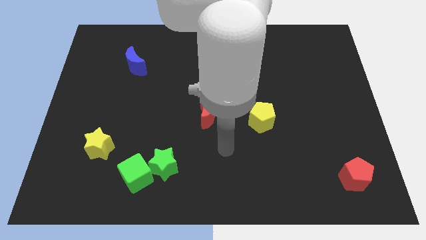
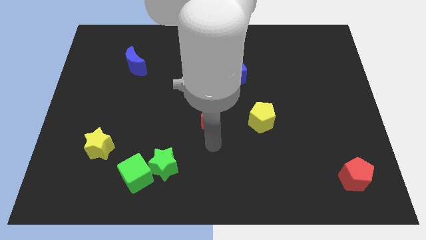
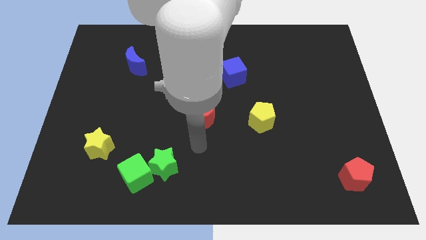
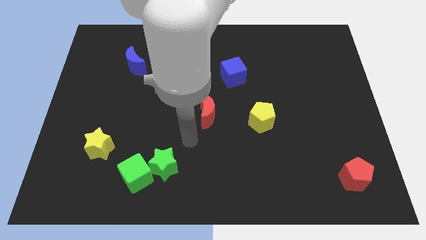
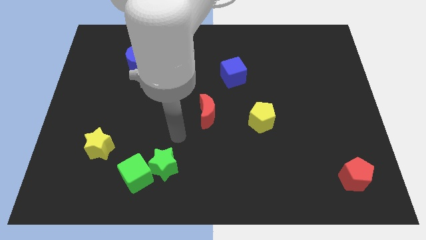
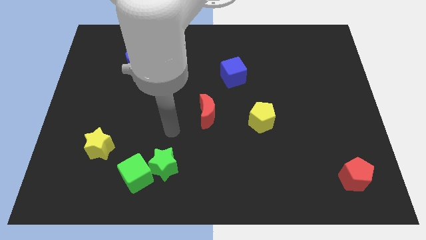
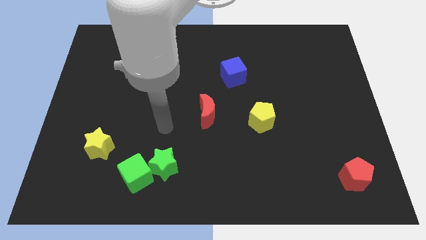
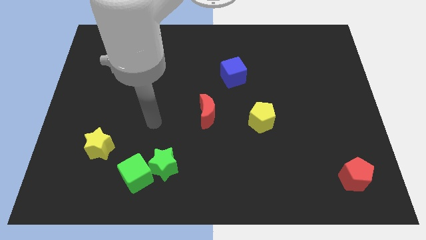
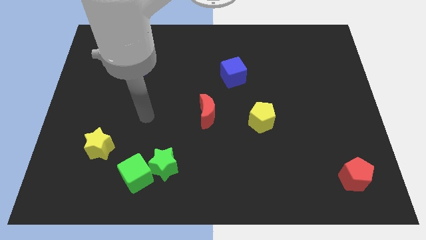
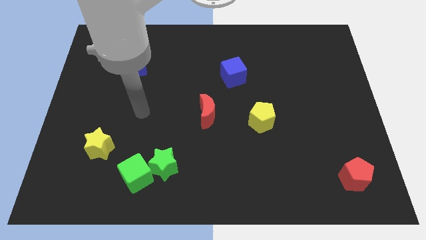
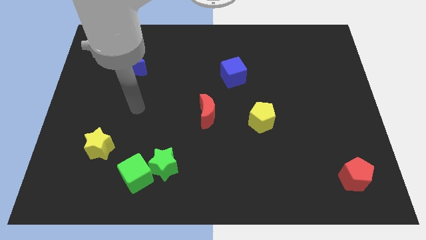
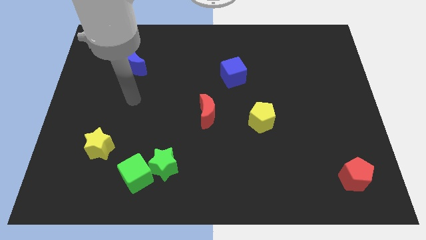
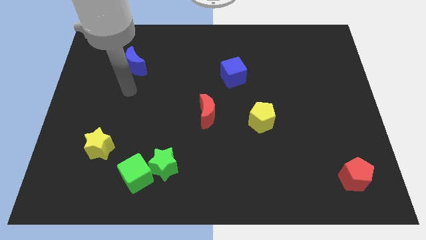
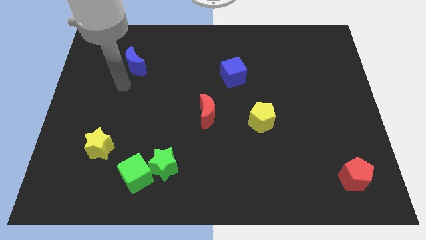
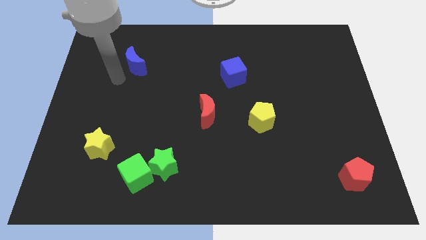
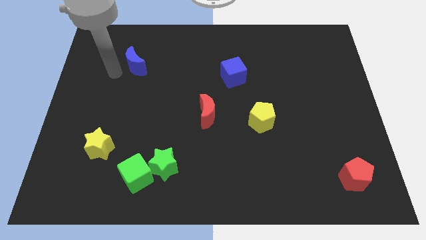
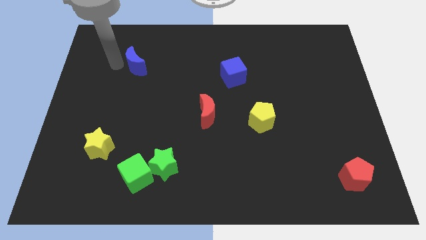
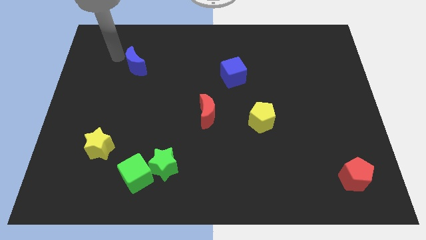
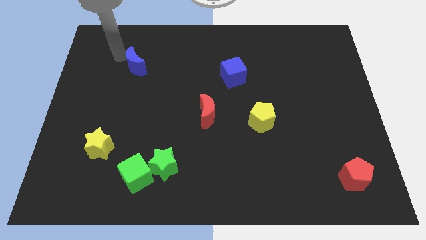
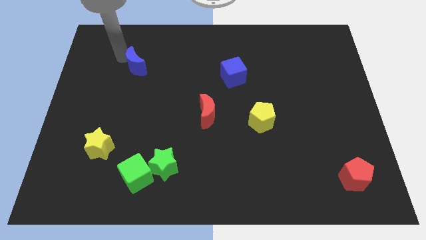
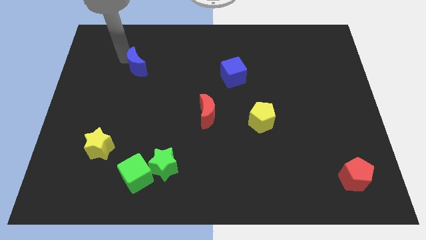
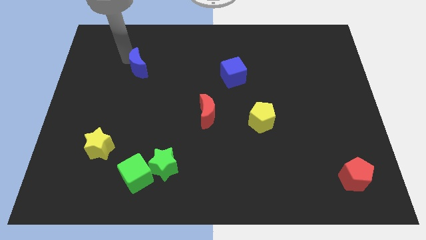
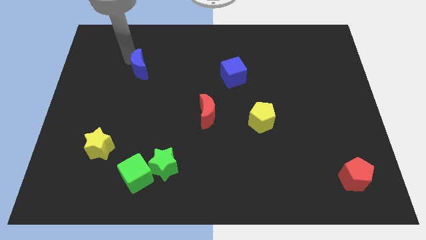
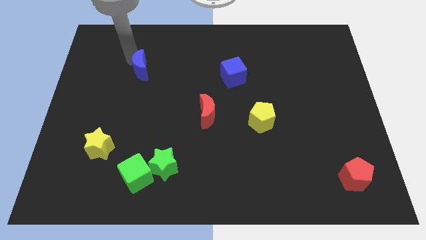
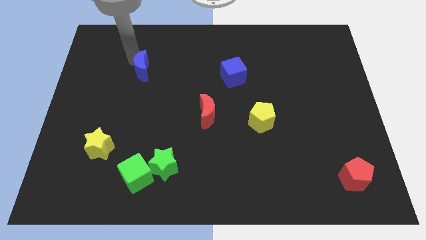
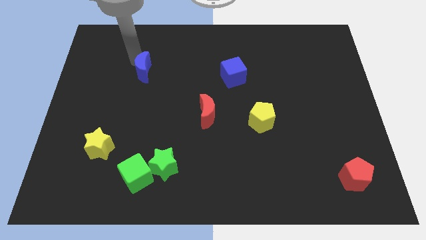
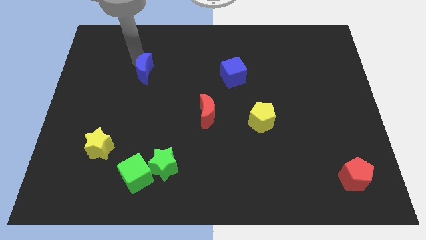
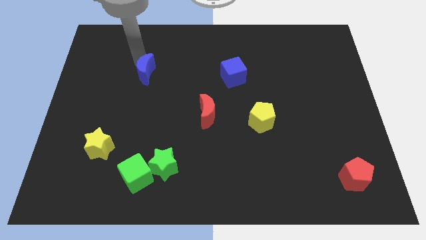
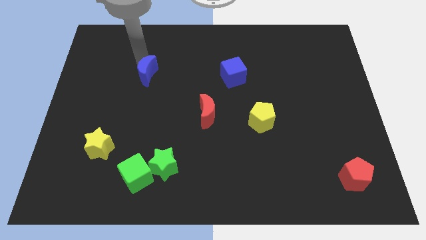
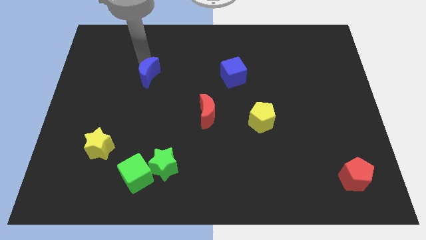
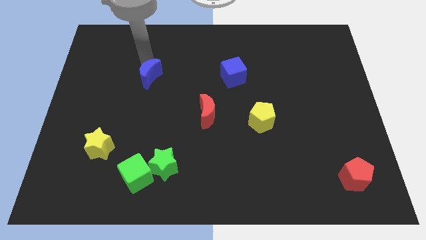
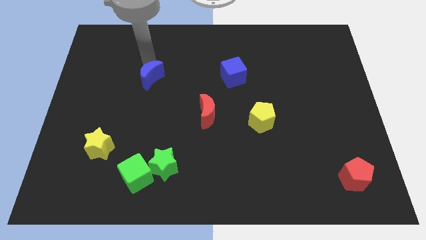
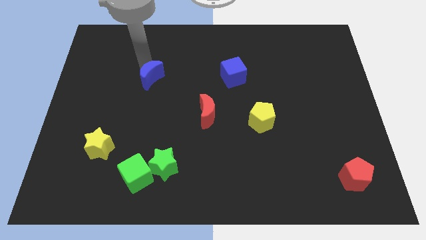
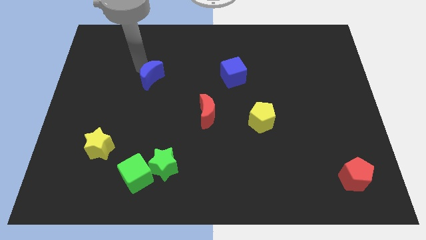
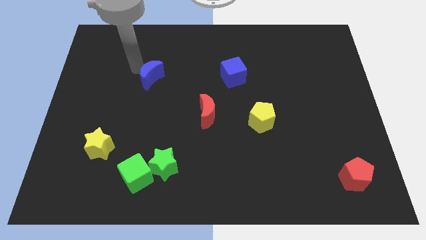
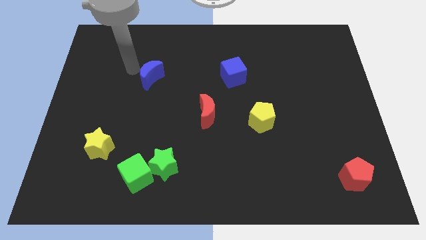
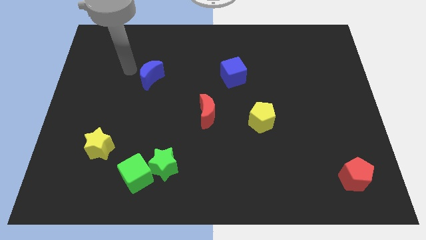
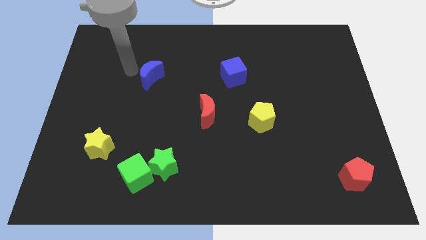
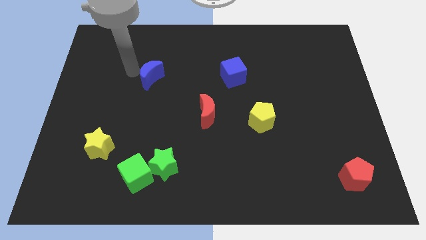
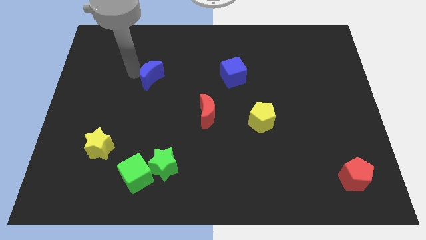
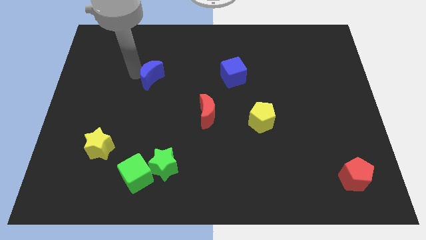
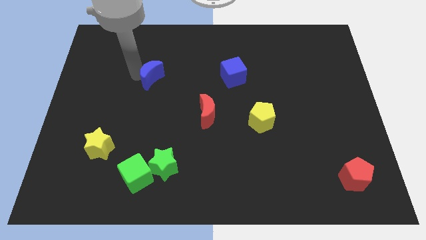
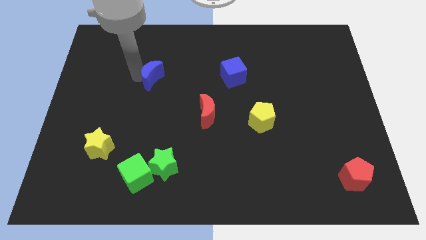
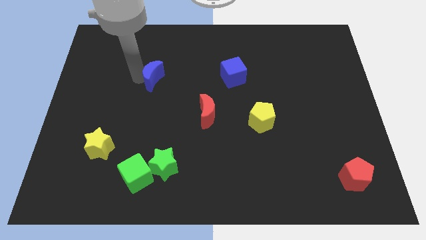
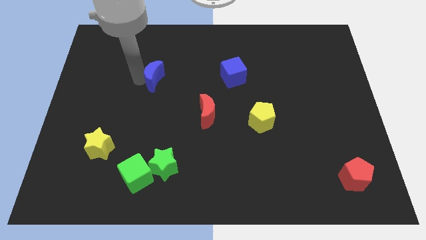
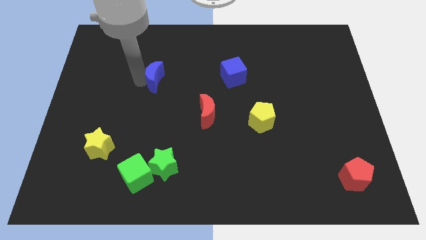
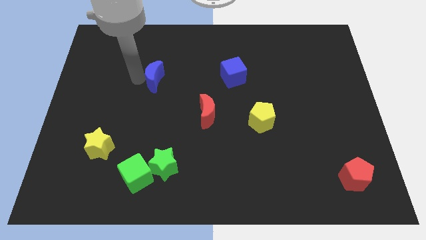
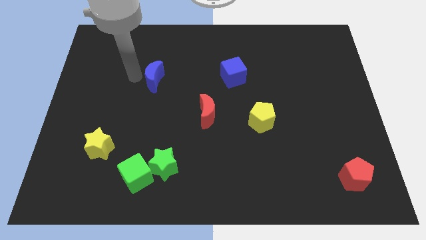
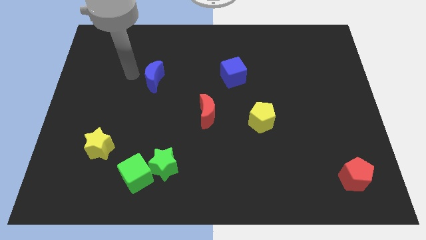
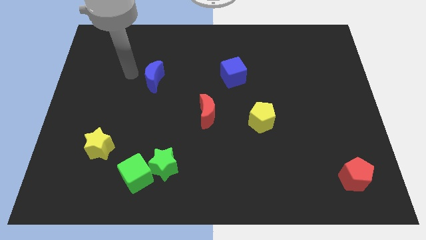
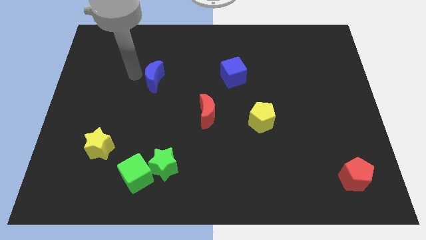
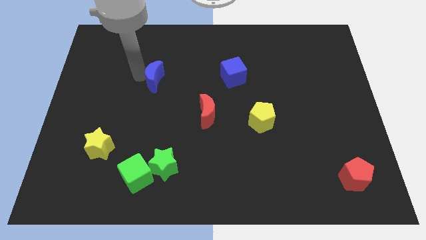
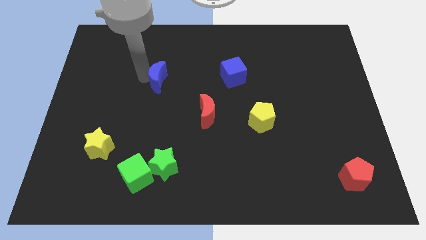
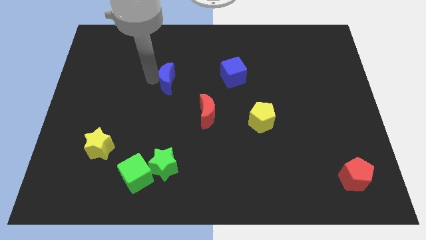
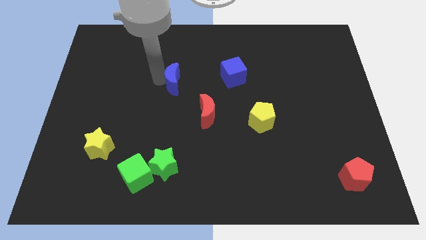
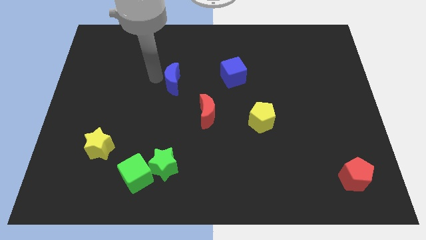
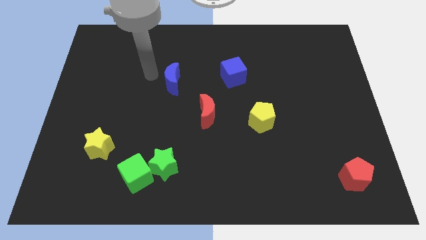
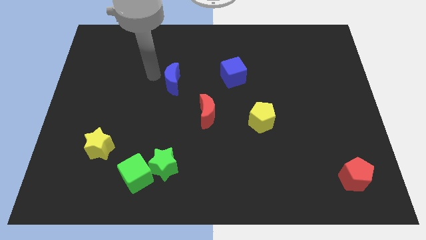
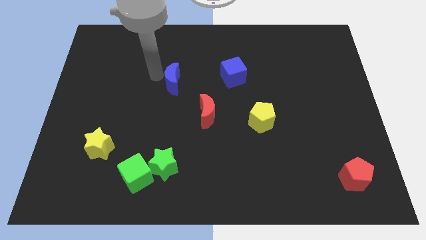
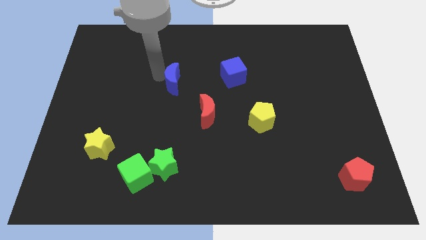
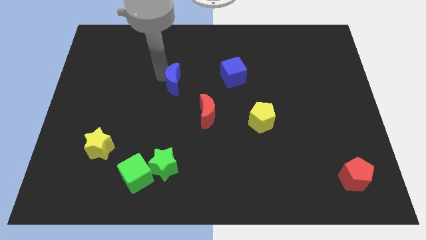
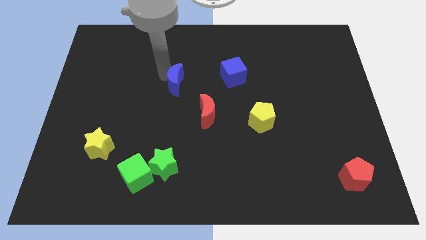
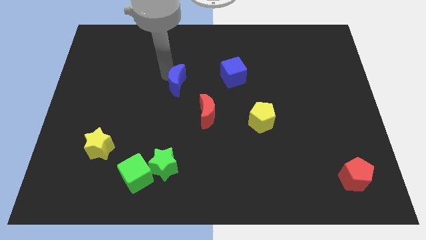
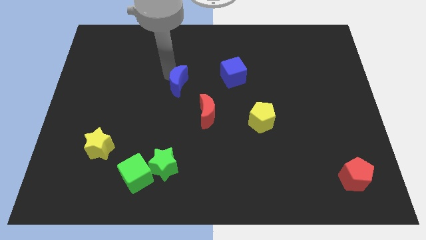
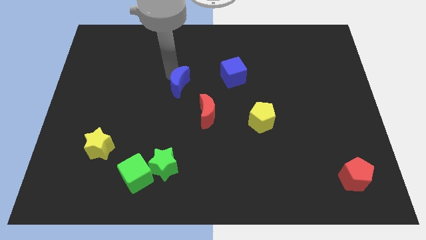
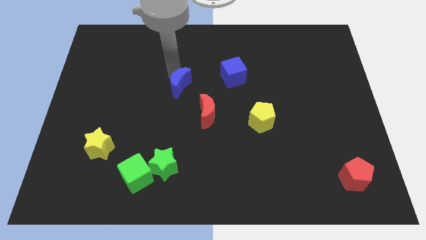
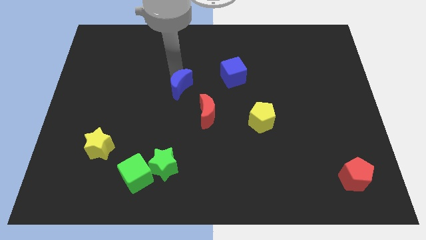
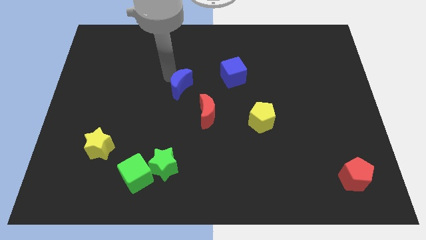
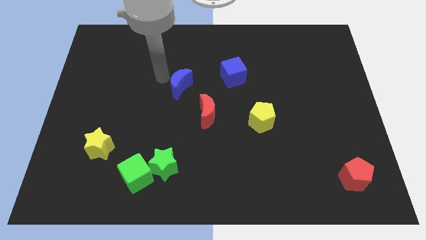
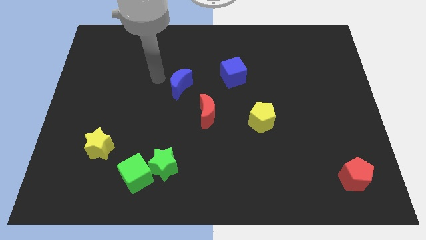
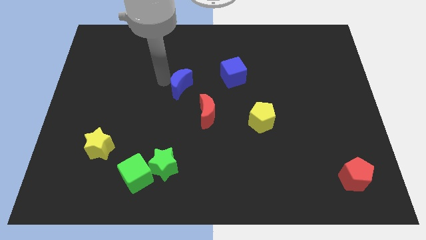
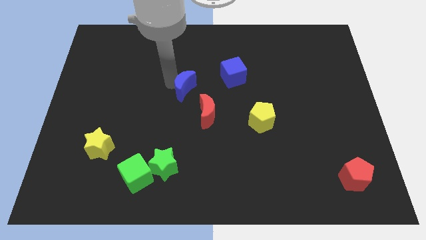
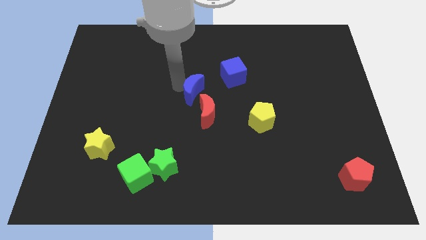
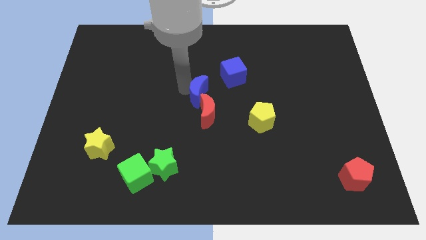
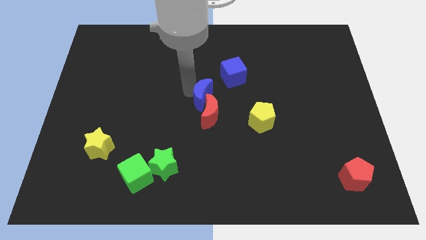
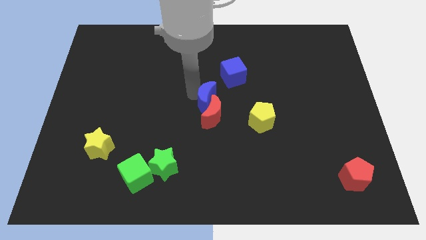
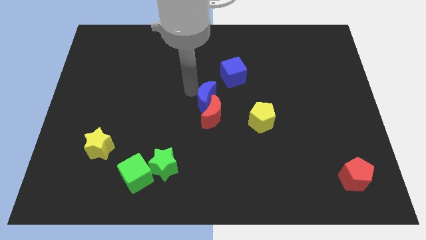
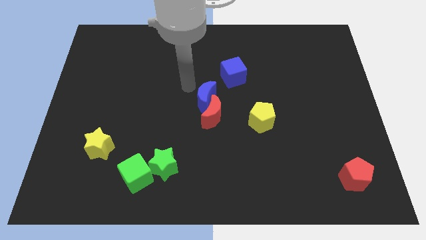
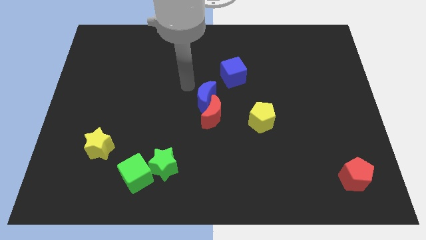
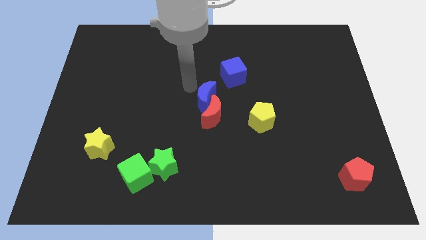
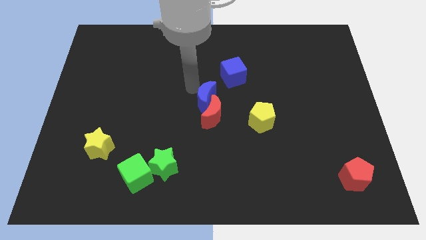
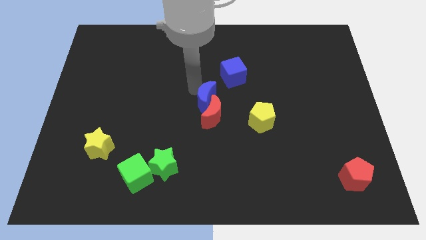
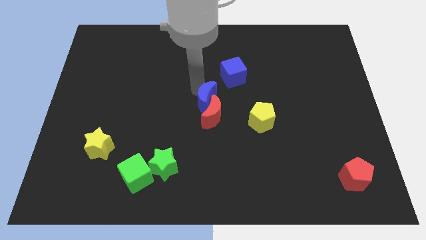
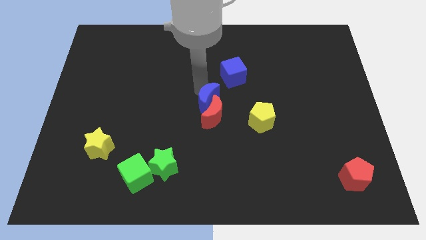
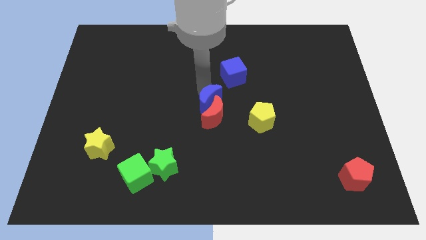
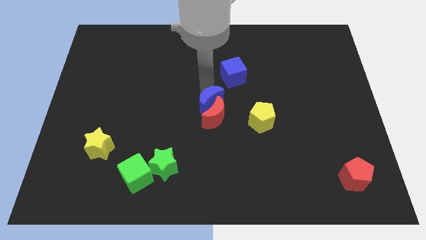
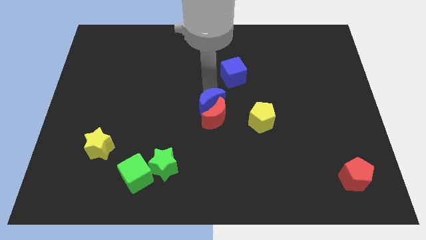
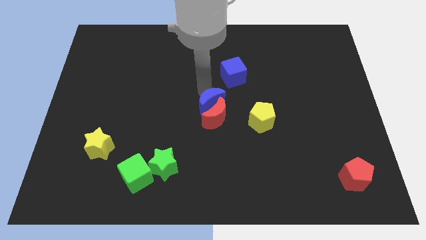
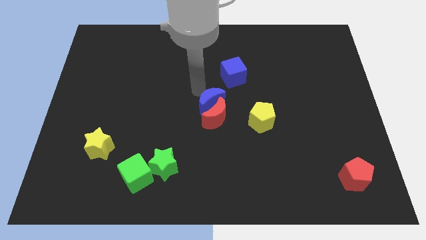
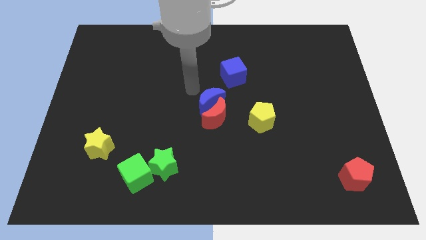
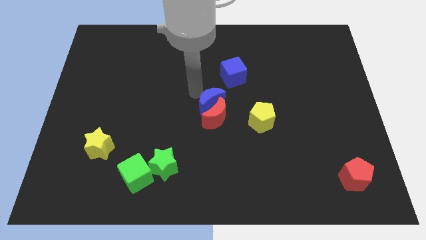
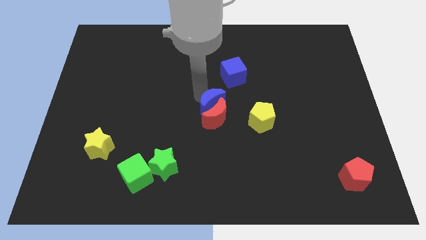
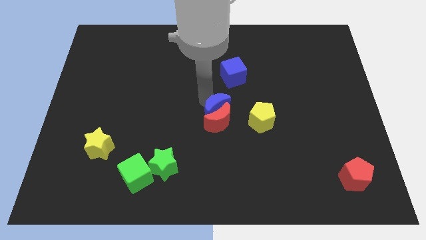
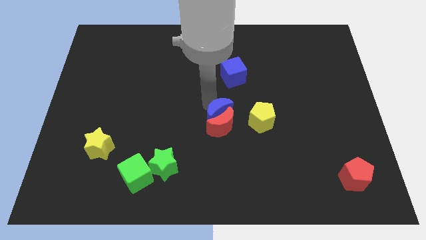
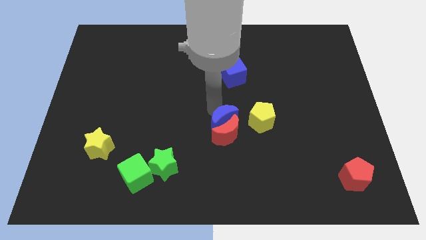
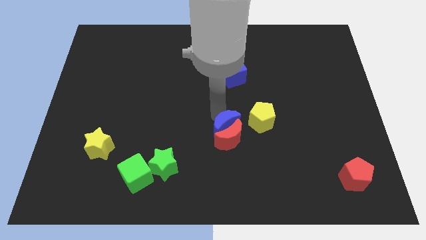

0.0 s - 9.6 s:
push the blue moon to the bottom left side of the yellow pentagon
